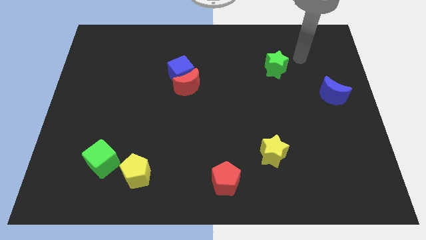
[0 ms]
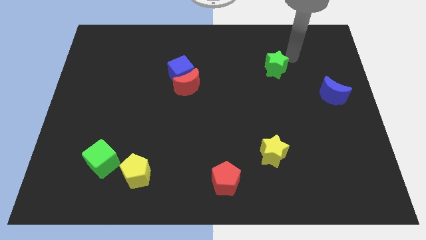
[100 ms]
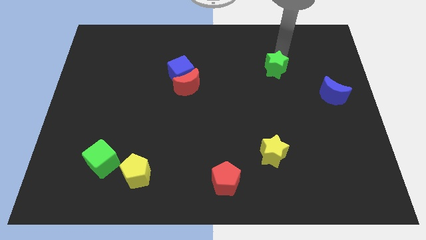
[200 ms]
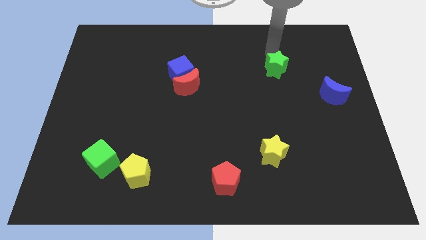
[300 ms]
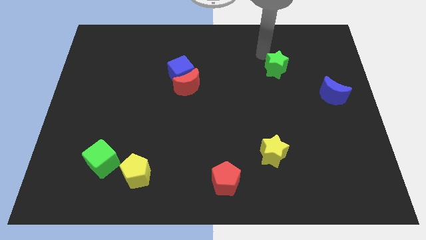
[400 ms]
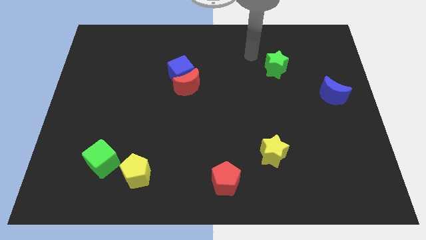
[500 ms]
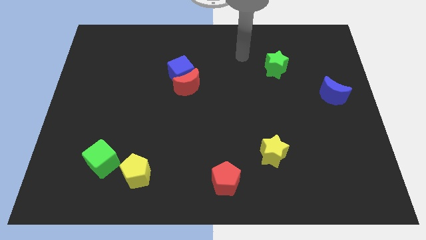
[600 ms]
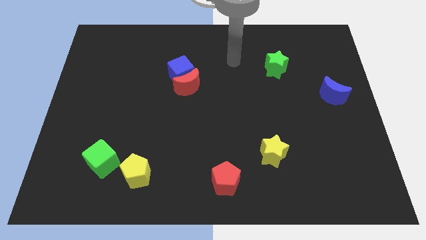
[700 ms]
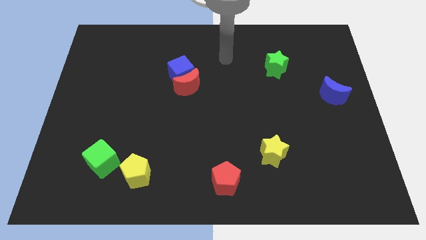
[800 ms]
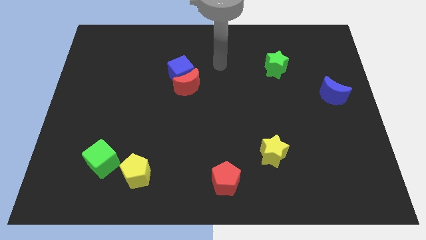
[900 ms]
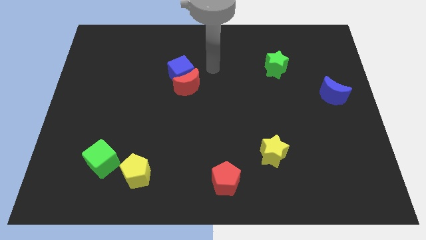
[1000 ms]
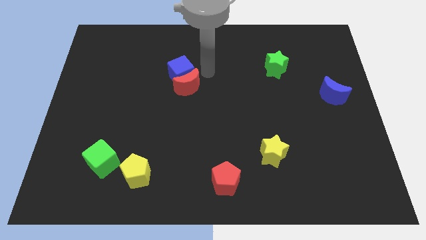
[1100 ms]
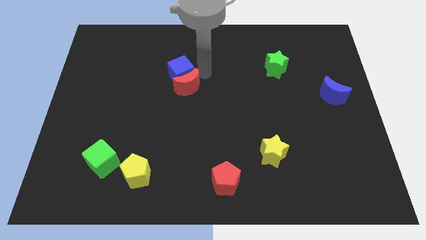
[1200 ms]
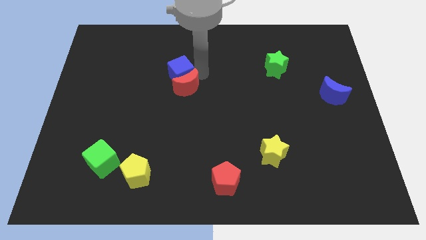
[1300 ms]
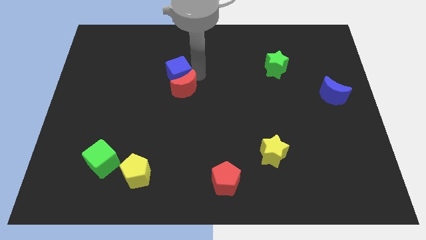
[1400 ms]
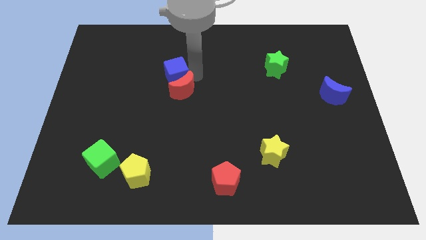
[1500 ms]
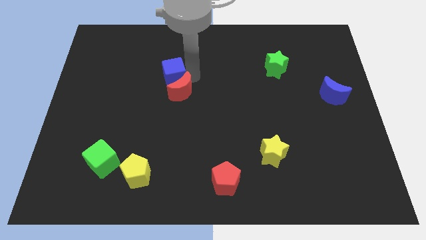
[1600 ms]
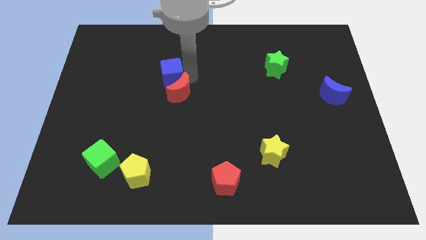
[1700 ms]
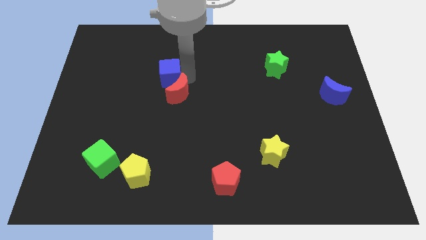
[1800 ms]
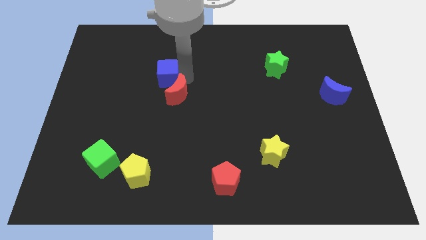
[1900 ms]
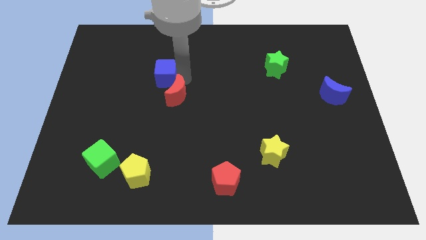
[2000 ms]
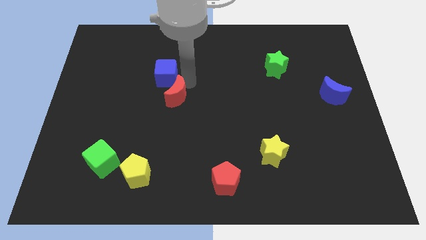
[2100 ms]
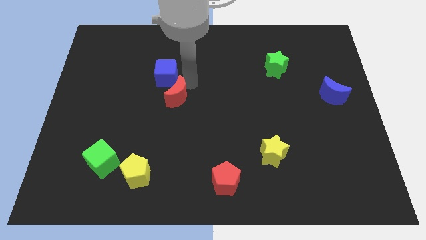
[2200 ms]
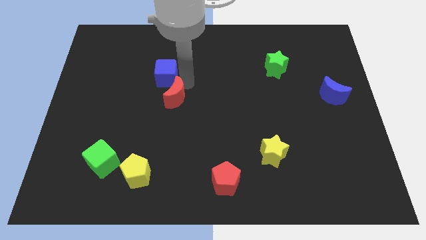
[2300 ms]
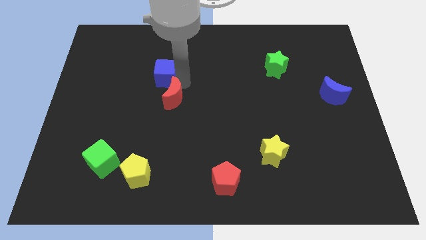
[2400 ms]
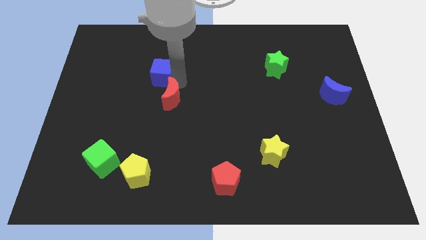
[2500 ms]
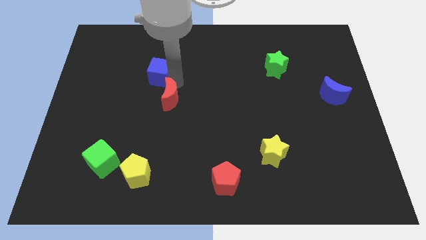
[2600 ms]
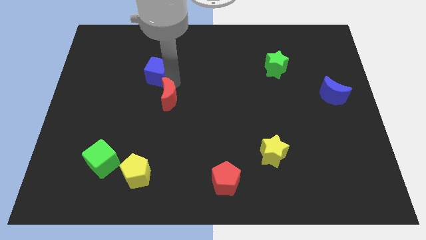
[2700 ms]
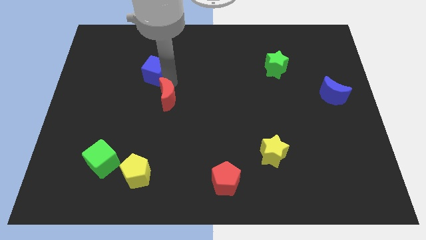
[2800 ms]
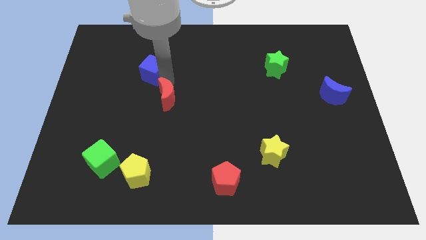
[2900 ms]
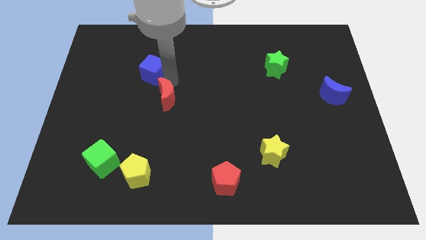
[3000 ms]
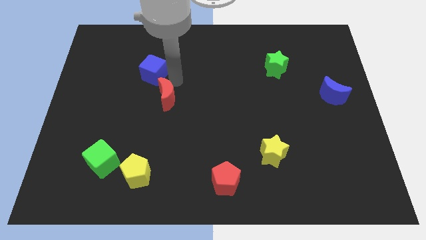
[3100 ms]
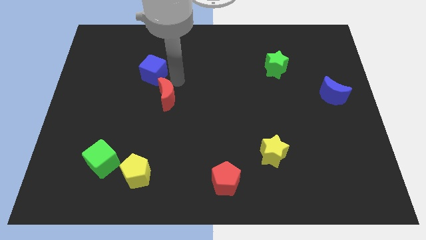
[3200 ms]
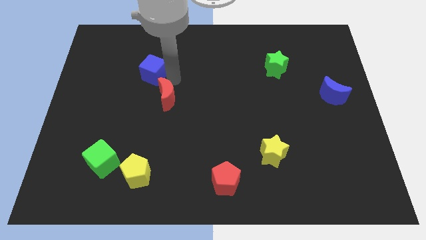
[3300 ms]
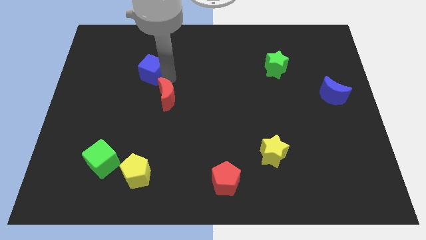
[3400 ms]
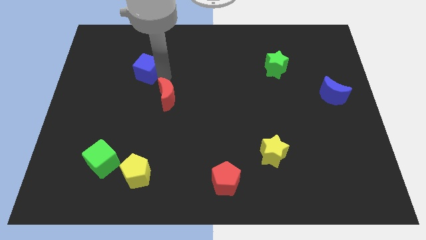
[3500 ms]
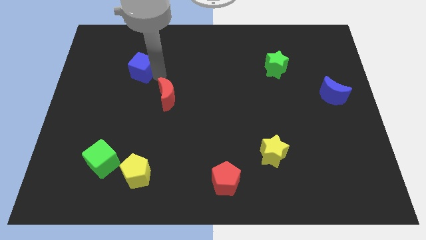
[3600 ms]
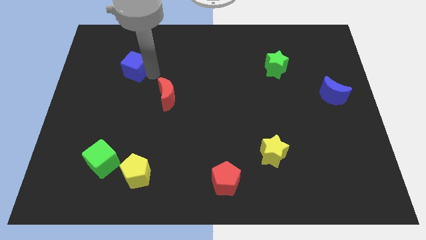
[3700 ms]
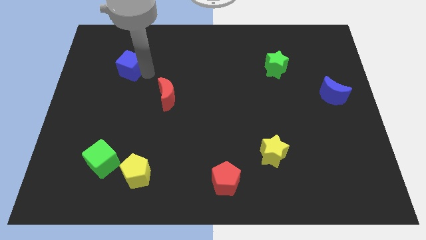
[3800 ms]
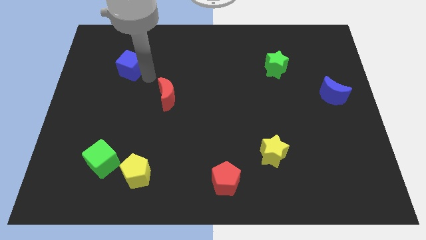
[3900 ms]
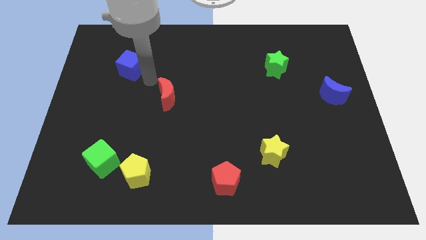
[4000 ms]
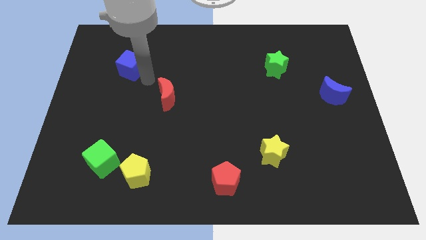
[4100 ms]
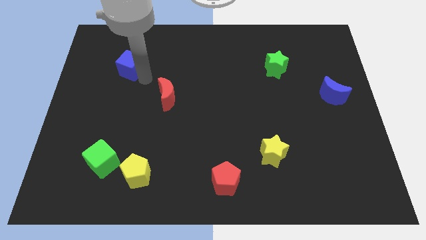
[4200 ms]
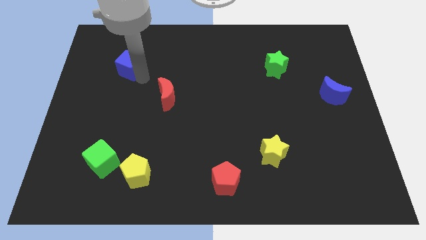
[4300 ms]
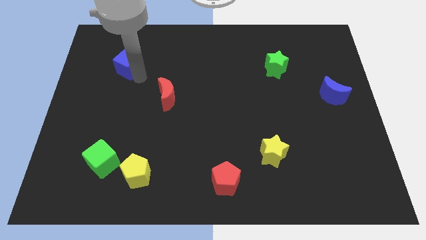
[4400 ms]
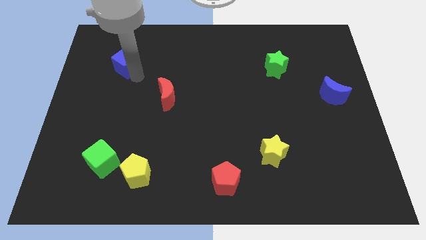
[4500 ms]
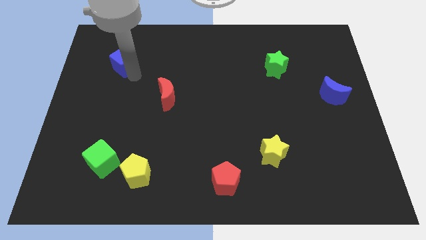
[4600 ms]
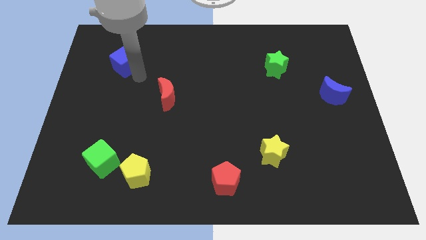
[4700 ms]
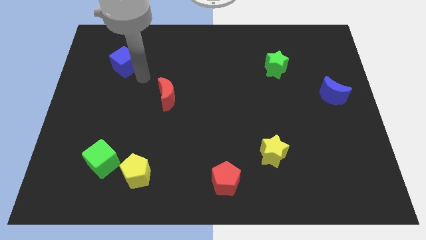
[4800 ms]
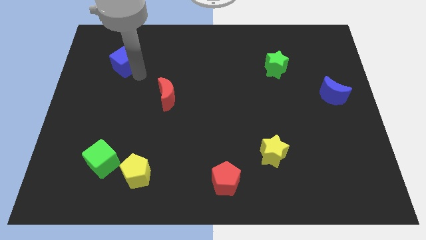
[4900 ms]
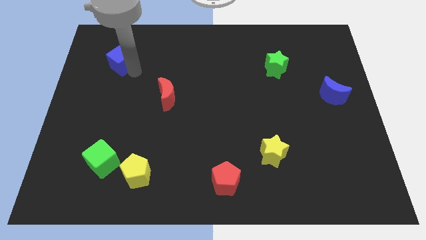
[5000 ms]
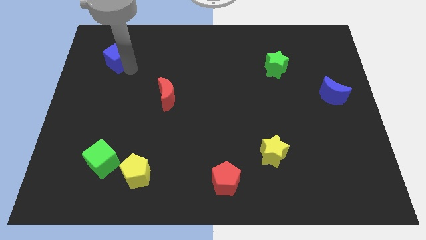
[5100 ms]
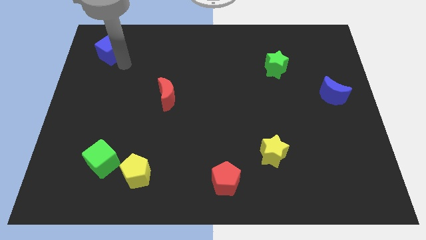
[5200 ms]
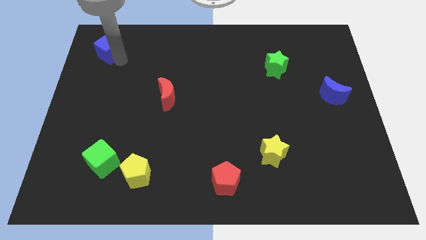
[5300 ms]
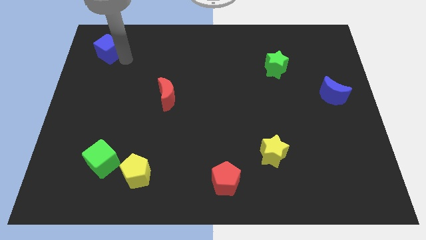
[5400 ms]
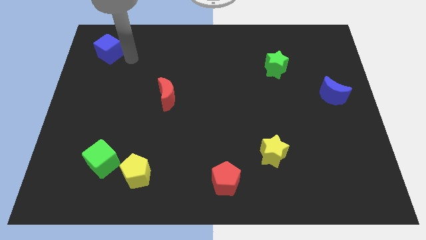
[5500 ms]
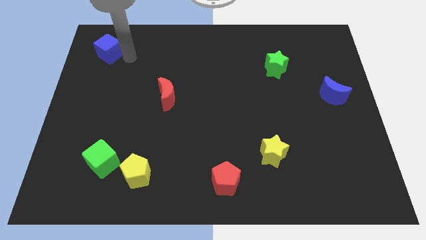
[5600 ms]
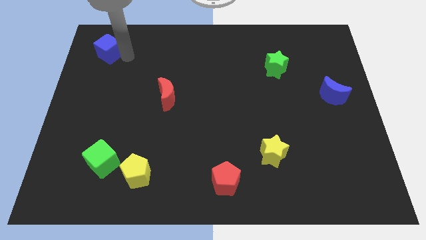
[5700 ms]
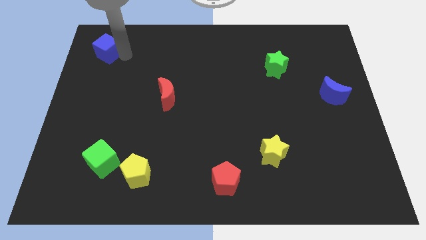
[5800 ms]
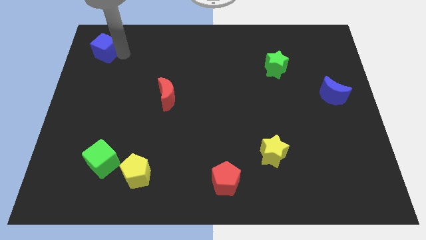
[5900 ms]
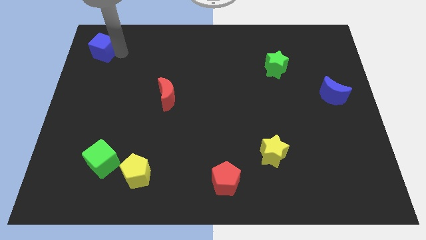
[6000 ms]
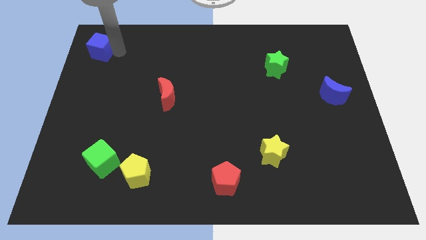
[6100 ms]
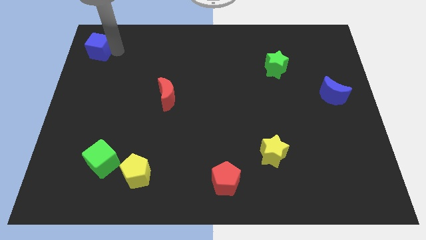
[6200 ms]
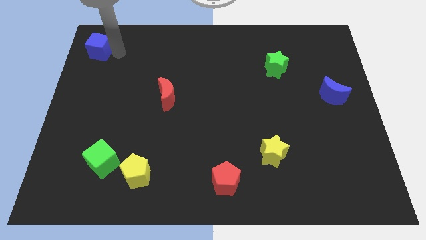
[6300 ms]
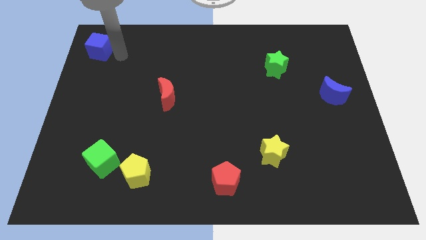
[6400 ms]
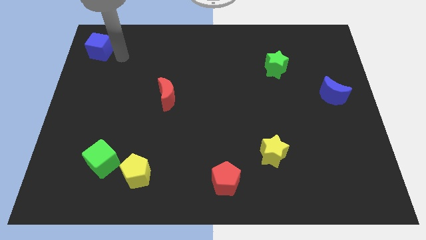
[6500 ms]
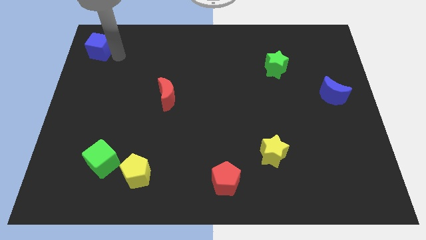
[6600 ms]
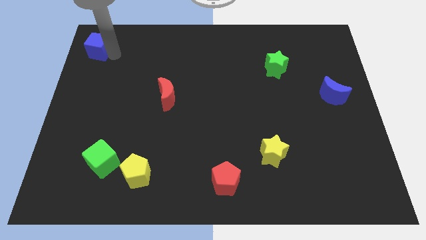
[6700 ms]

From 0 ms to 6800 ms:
slide the blue cube to the top left corner
